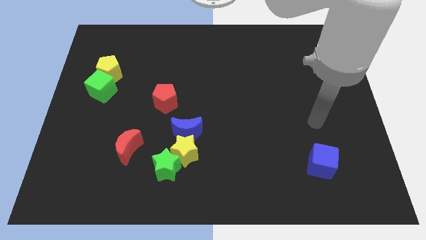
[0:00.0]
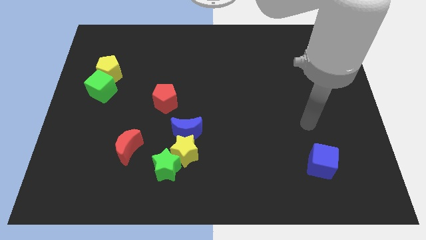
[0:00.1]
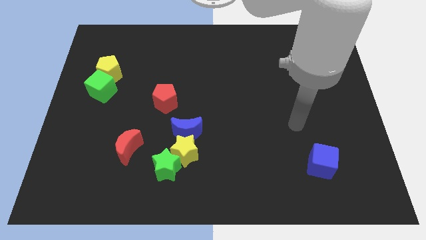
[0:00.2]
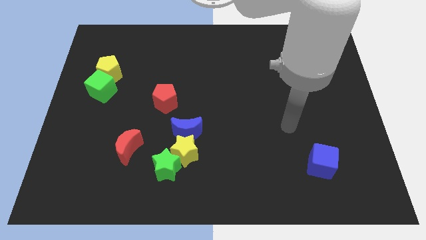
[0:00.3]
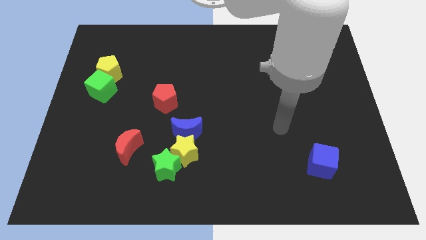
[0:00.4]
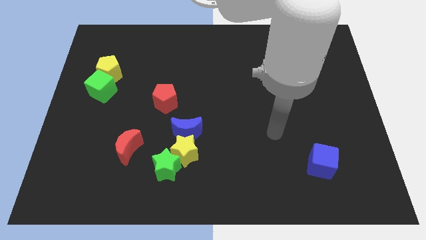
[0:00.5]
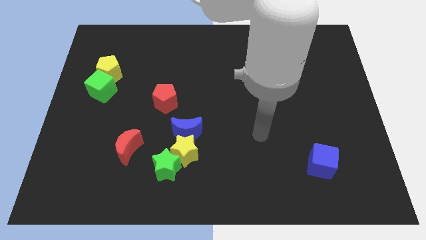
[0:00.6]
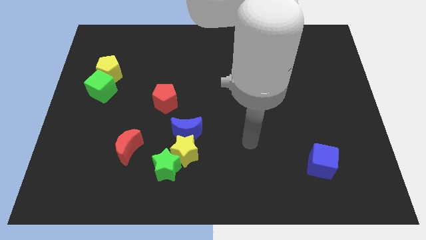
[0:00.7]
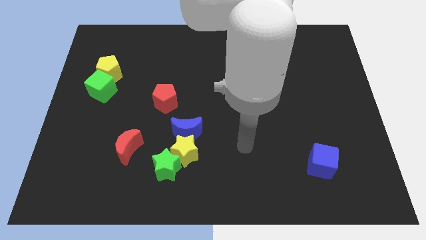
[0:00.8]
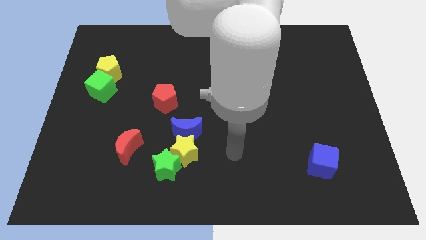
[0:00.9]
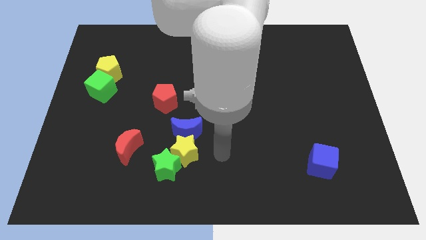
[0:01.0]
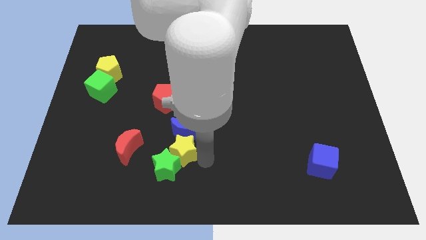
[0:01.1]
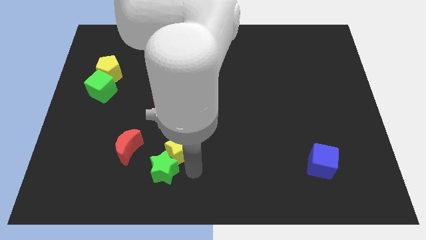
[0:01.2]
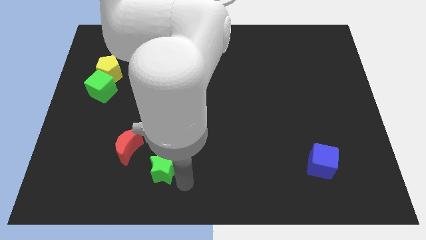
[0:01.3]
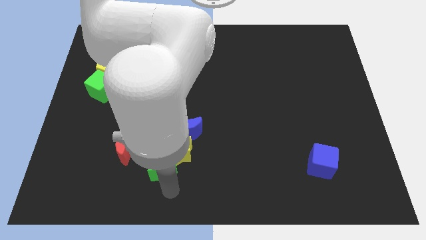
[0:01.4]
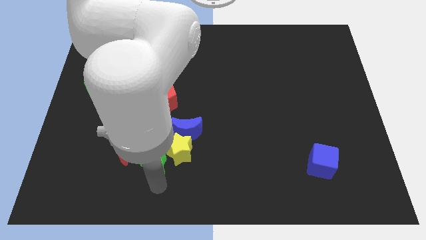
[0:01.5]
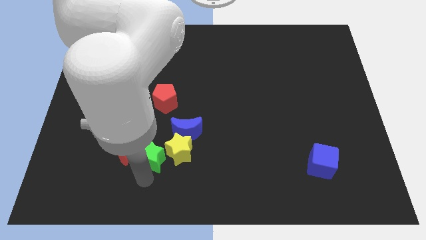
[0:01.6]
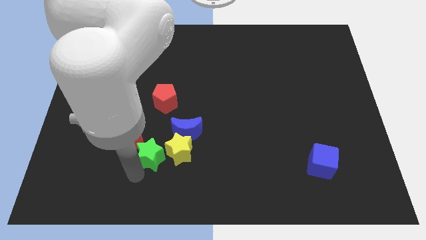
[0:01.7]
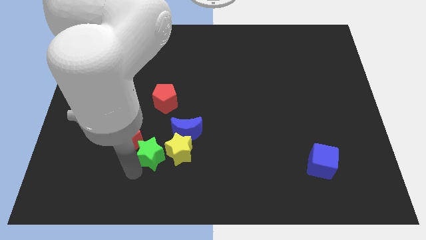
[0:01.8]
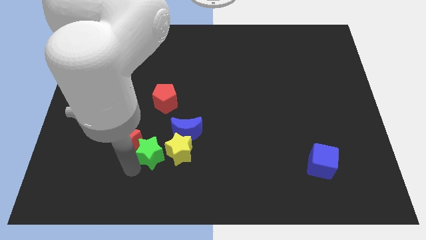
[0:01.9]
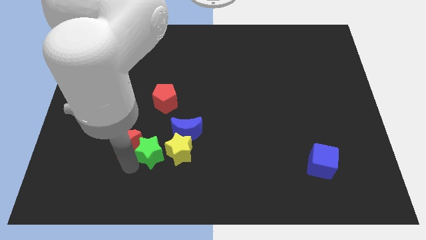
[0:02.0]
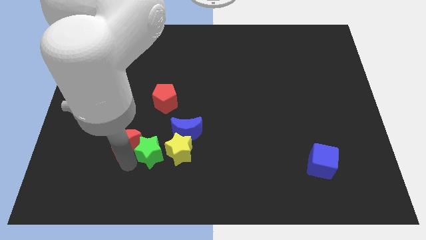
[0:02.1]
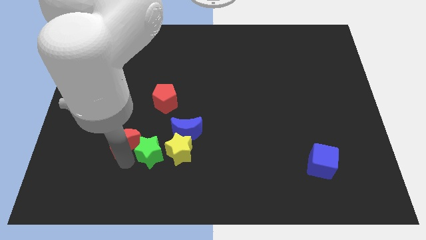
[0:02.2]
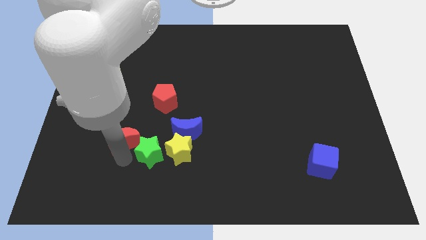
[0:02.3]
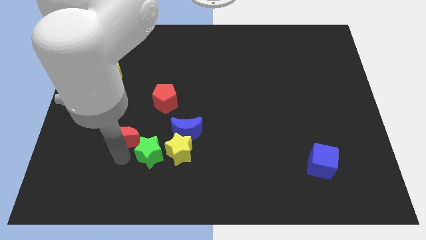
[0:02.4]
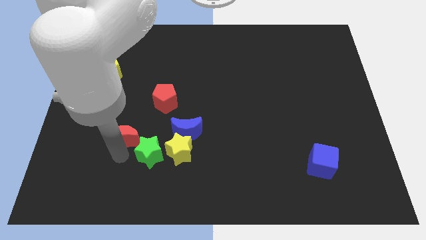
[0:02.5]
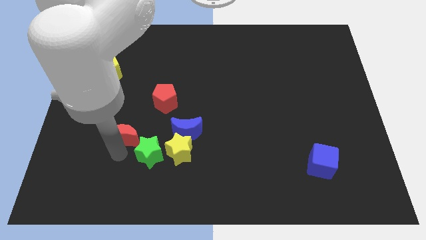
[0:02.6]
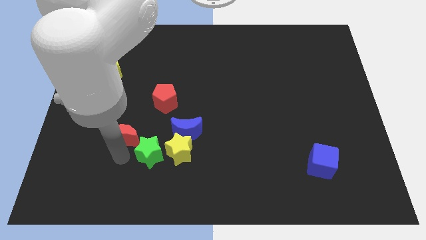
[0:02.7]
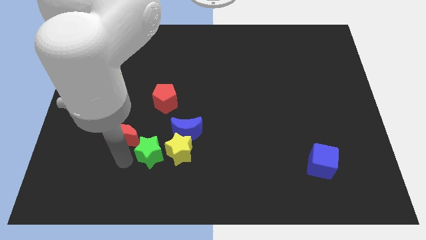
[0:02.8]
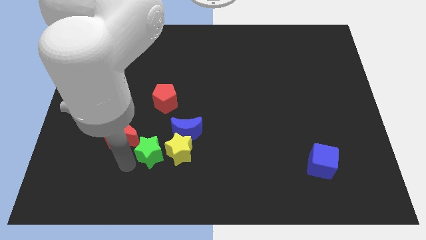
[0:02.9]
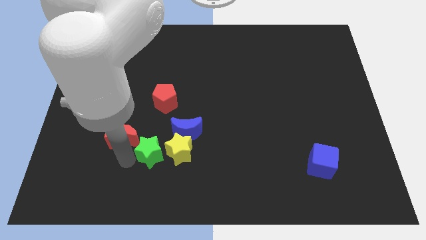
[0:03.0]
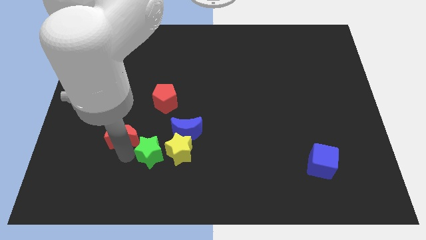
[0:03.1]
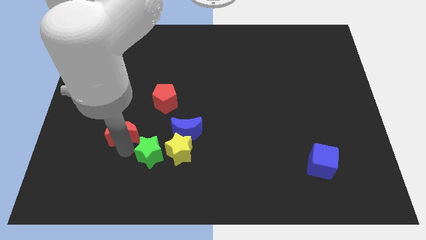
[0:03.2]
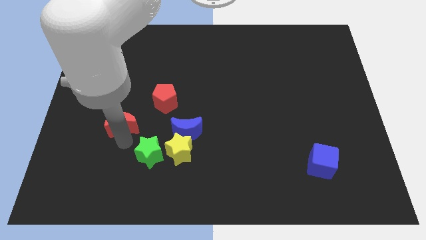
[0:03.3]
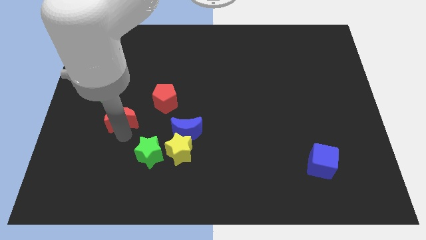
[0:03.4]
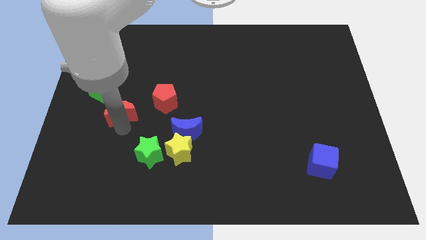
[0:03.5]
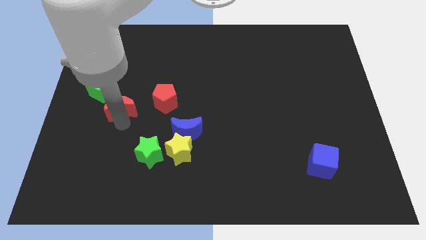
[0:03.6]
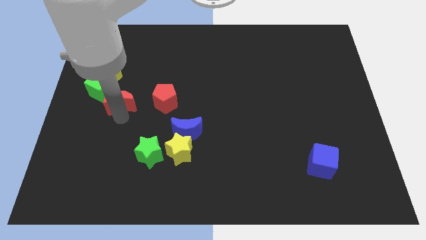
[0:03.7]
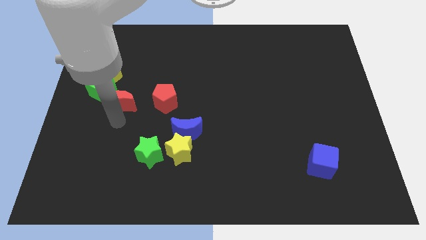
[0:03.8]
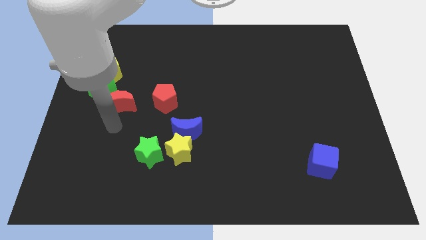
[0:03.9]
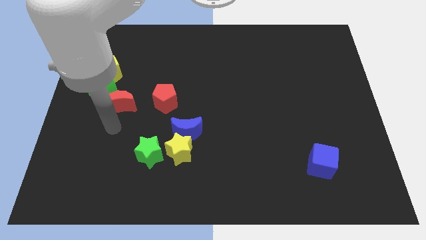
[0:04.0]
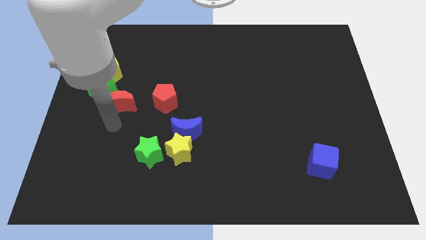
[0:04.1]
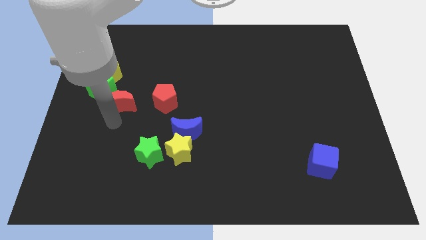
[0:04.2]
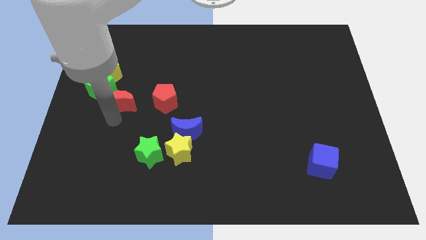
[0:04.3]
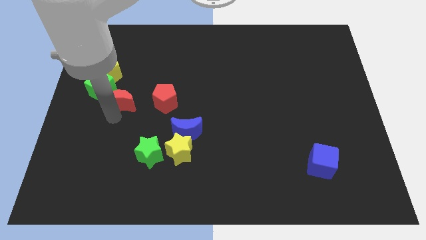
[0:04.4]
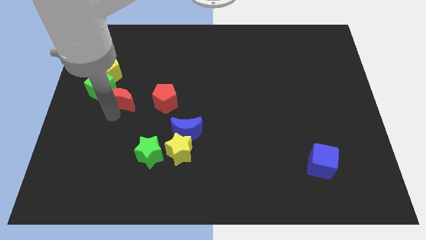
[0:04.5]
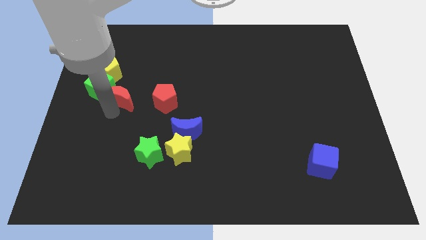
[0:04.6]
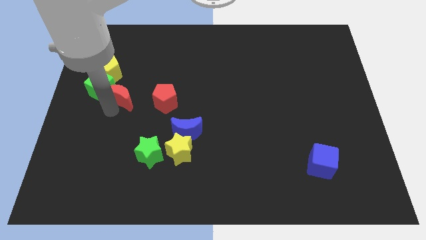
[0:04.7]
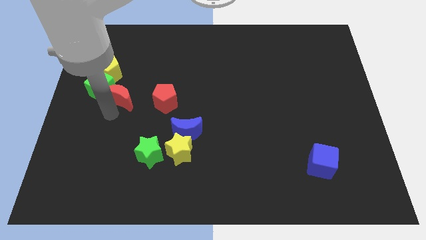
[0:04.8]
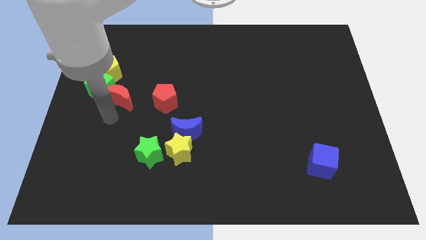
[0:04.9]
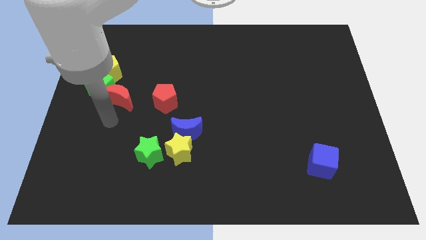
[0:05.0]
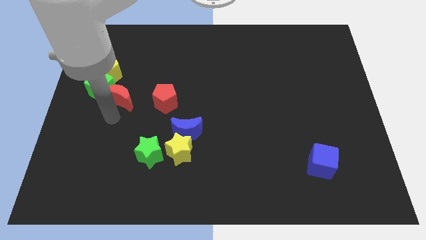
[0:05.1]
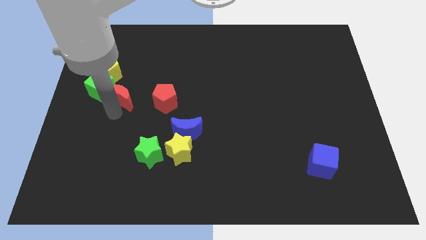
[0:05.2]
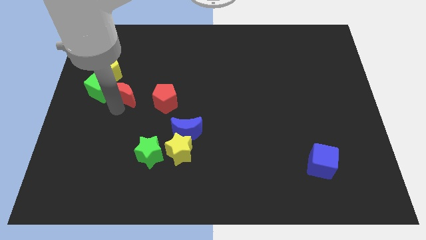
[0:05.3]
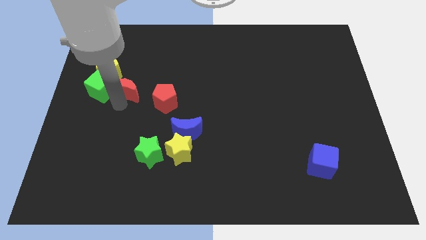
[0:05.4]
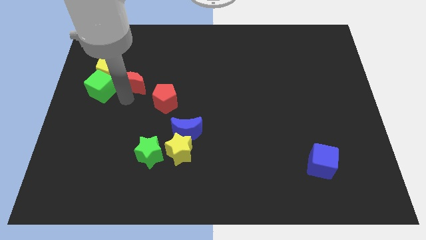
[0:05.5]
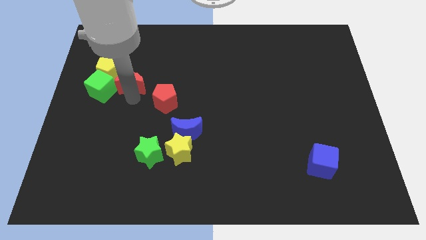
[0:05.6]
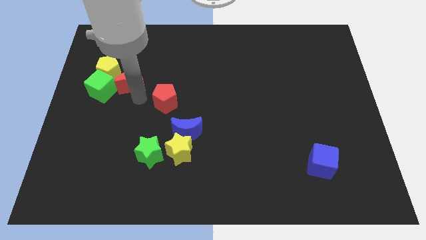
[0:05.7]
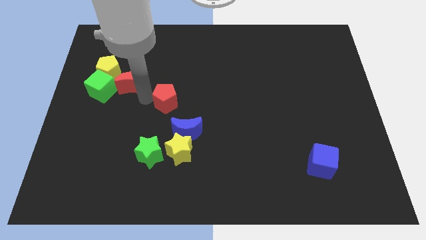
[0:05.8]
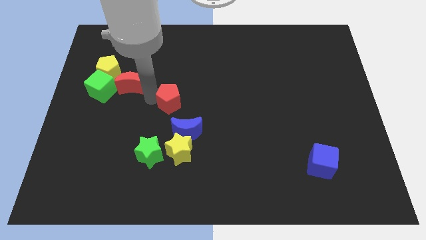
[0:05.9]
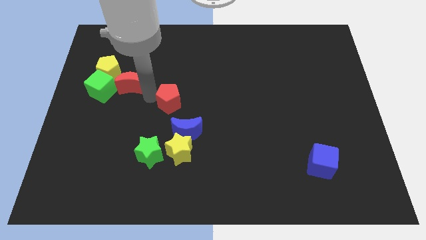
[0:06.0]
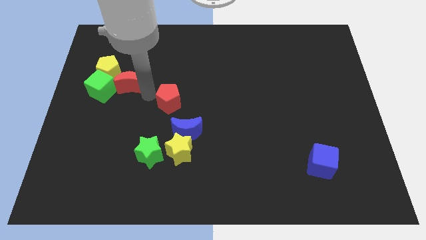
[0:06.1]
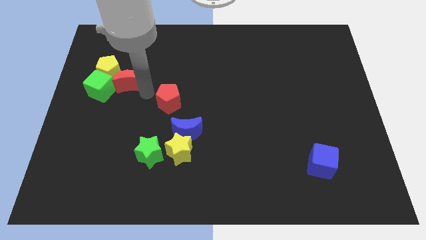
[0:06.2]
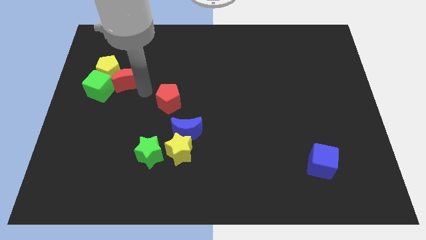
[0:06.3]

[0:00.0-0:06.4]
put the red moon towards the yellow pentagon
